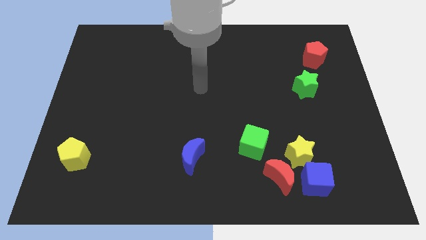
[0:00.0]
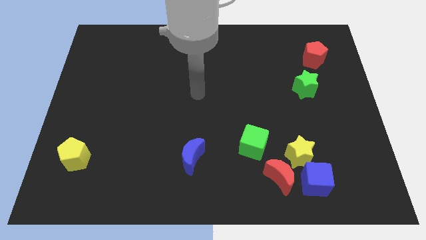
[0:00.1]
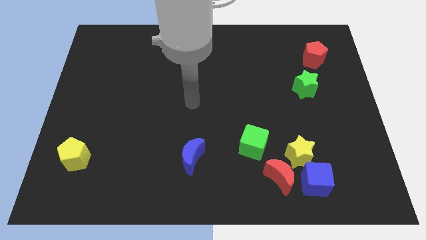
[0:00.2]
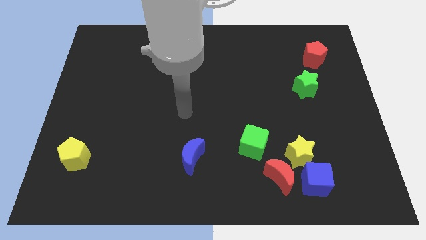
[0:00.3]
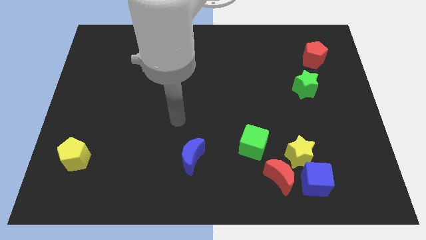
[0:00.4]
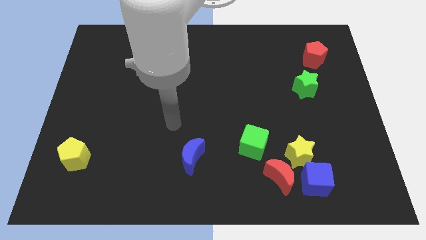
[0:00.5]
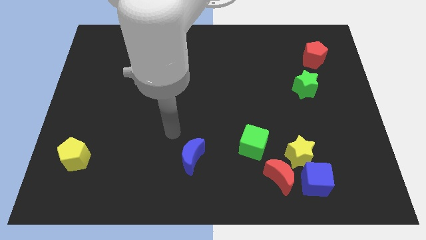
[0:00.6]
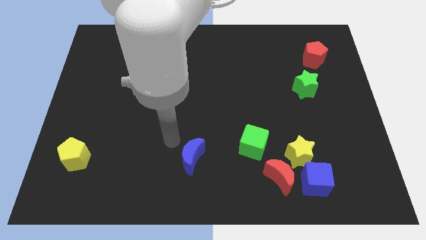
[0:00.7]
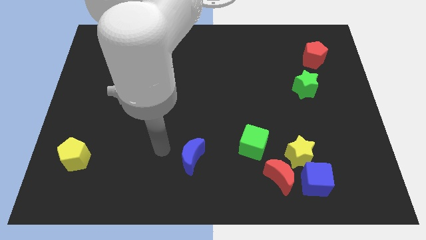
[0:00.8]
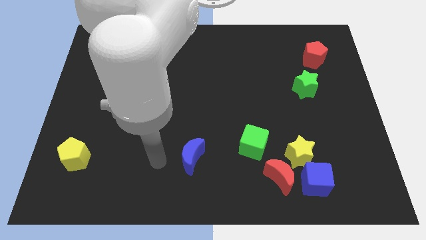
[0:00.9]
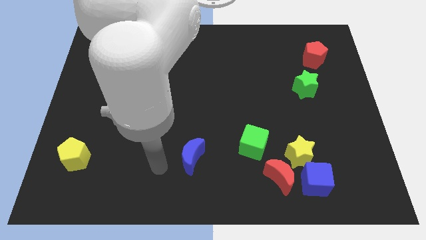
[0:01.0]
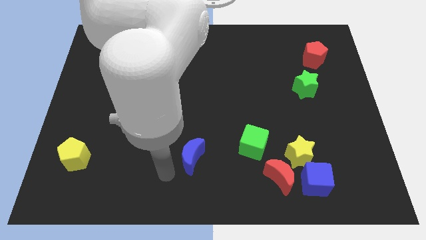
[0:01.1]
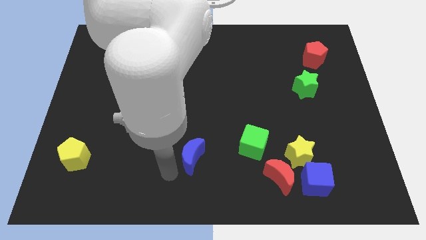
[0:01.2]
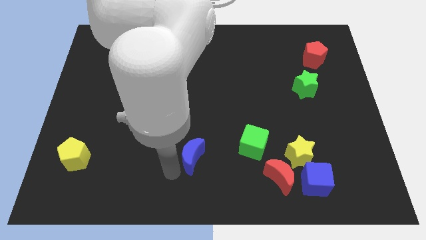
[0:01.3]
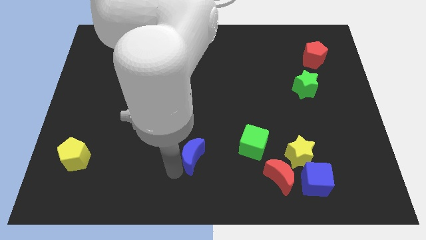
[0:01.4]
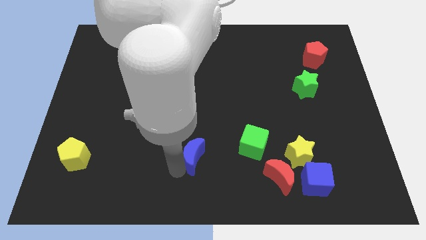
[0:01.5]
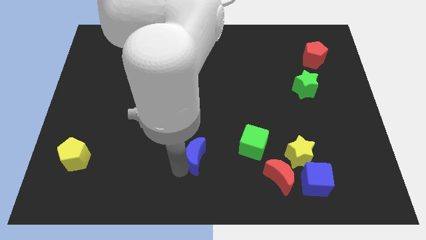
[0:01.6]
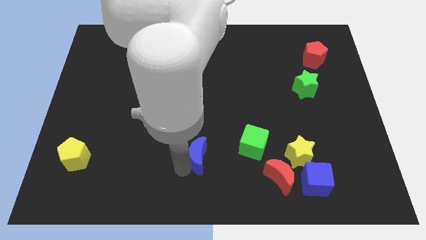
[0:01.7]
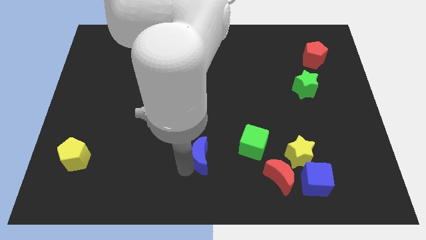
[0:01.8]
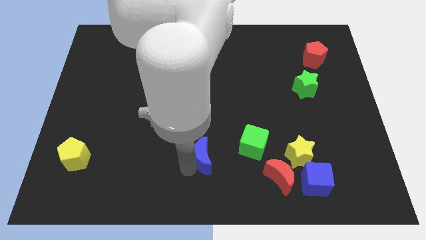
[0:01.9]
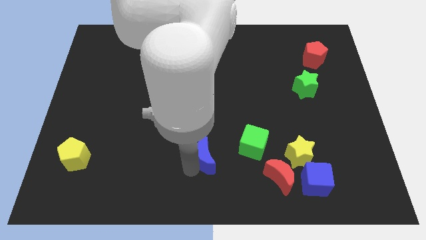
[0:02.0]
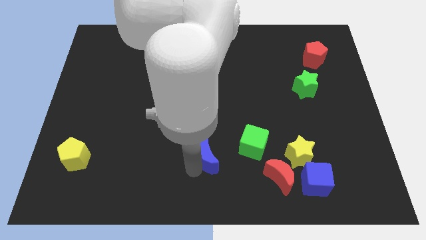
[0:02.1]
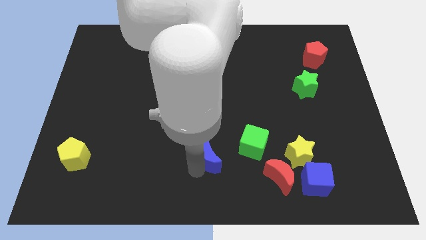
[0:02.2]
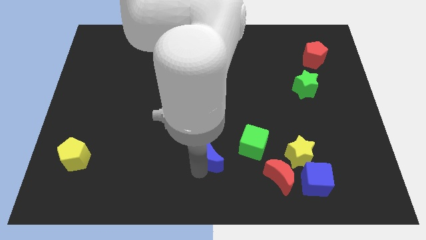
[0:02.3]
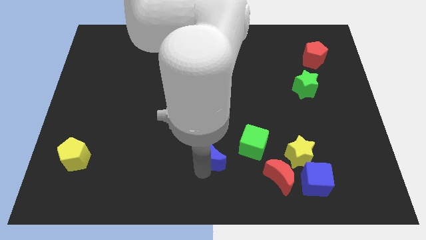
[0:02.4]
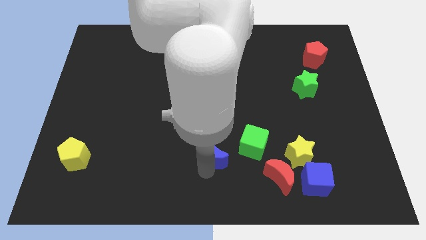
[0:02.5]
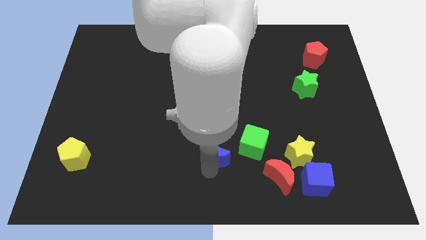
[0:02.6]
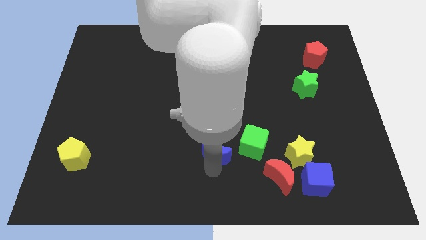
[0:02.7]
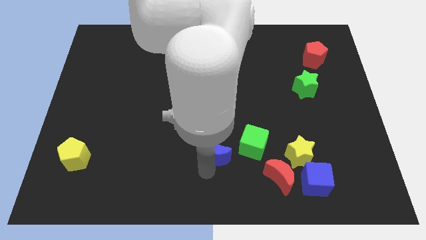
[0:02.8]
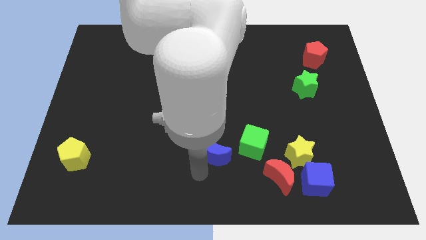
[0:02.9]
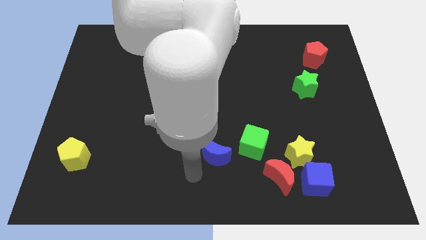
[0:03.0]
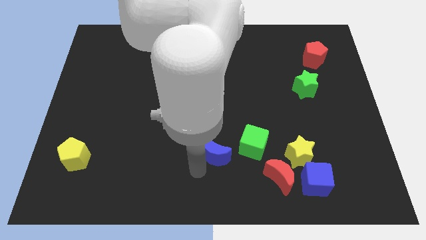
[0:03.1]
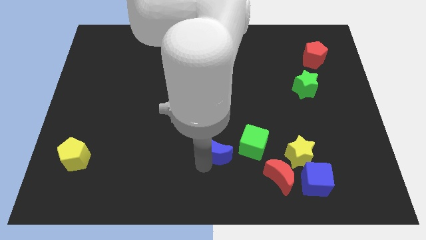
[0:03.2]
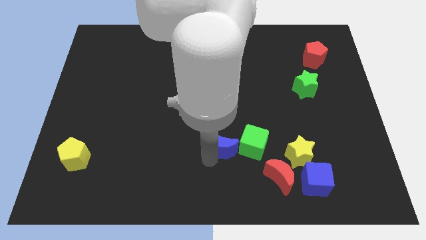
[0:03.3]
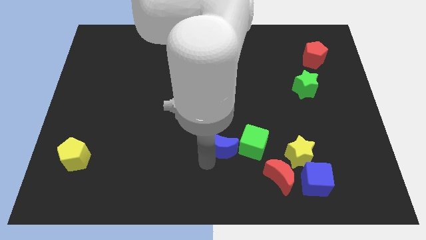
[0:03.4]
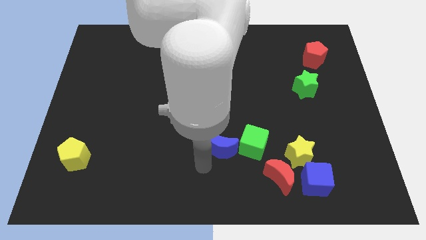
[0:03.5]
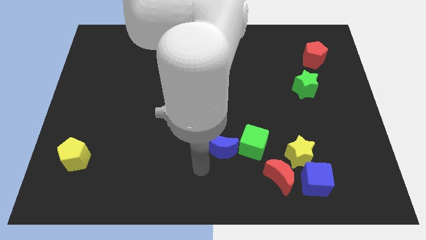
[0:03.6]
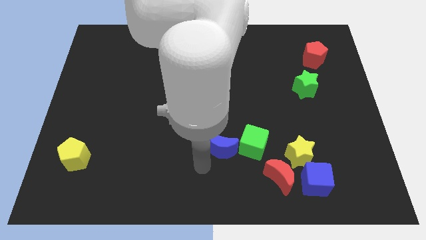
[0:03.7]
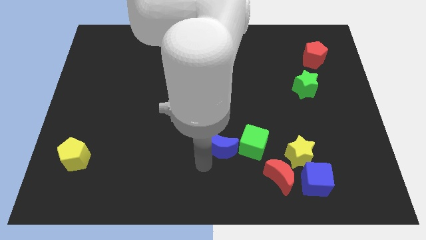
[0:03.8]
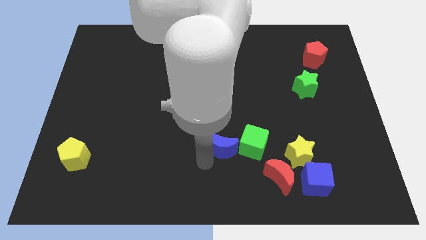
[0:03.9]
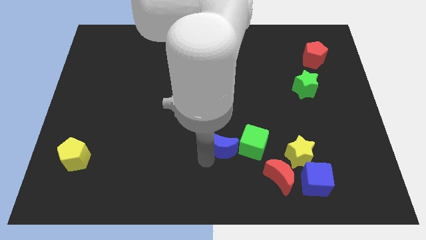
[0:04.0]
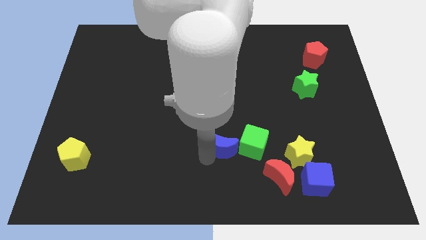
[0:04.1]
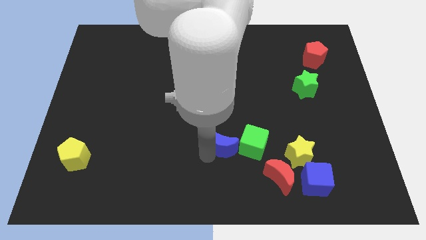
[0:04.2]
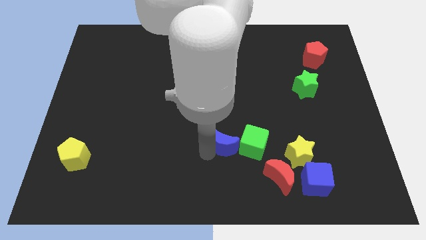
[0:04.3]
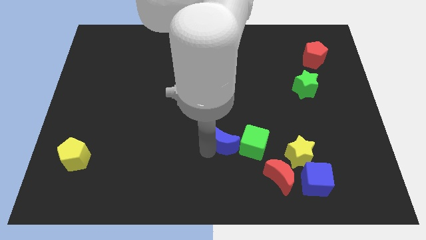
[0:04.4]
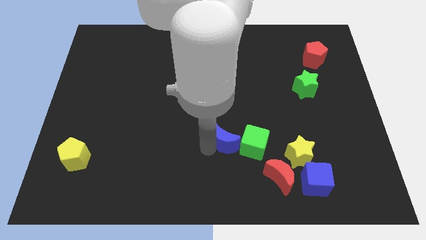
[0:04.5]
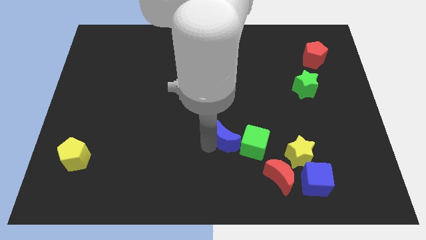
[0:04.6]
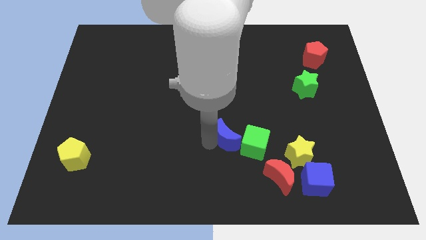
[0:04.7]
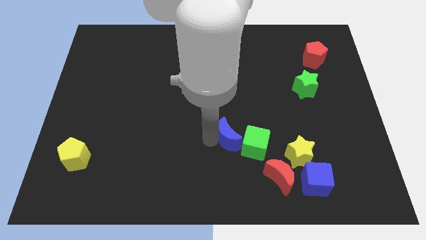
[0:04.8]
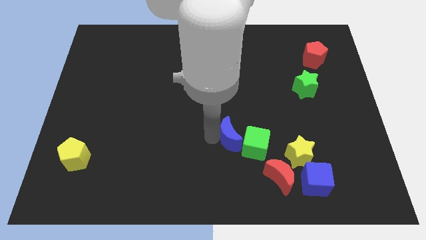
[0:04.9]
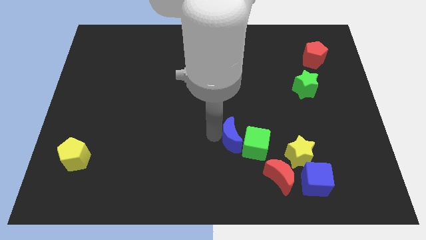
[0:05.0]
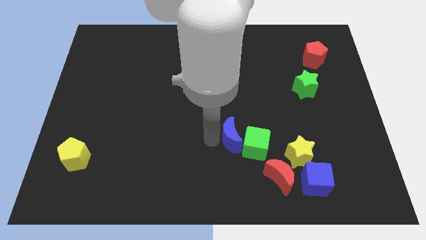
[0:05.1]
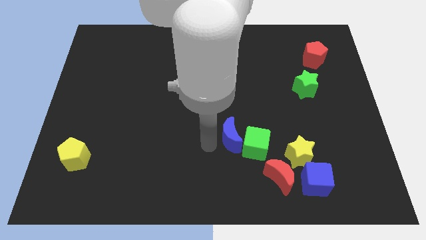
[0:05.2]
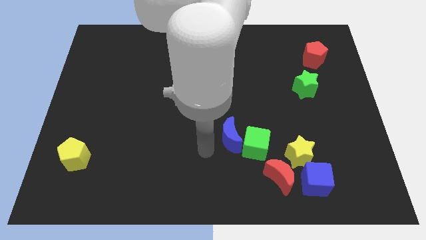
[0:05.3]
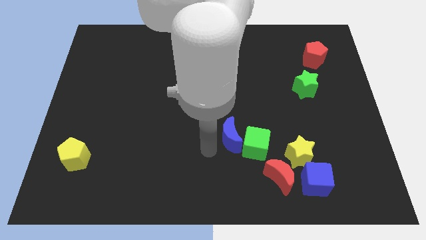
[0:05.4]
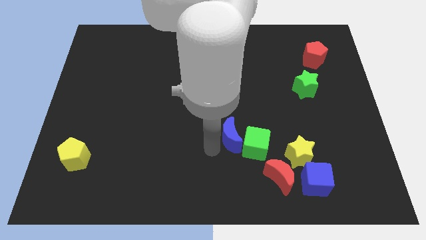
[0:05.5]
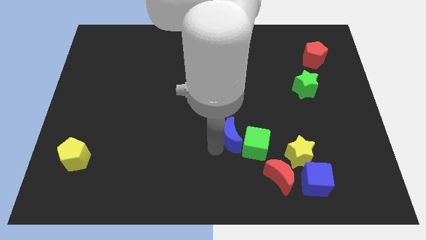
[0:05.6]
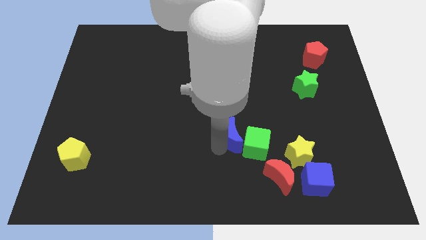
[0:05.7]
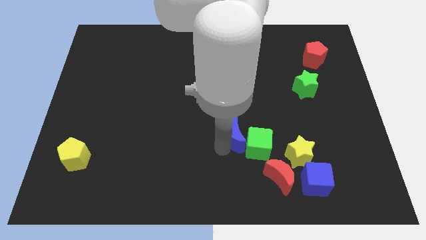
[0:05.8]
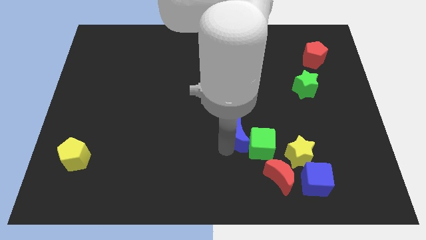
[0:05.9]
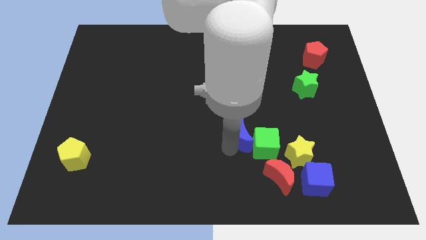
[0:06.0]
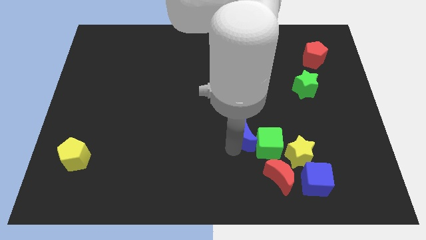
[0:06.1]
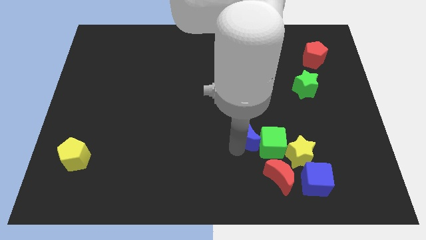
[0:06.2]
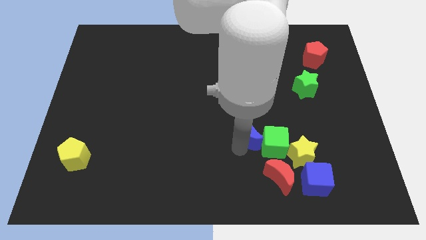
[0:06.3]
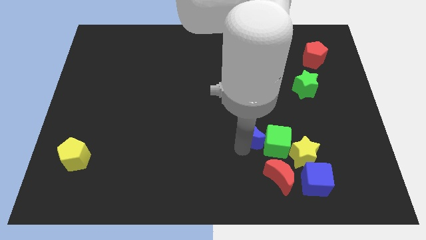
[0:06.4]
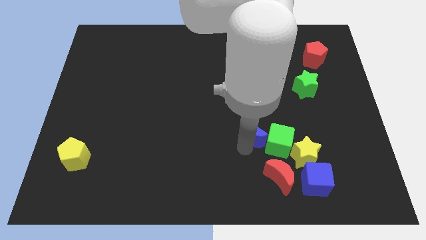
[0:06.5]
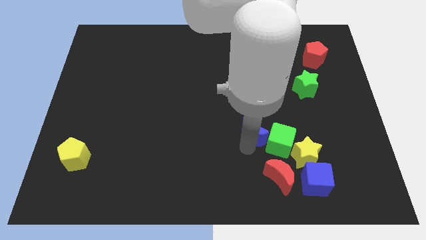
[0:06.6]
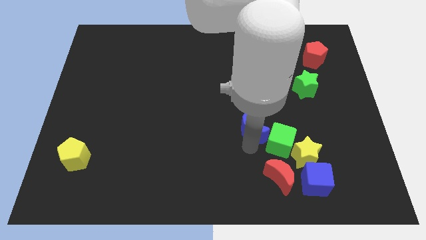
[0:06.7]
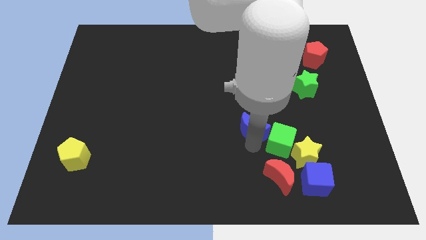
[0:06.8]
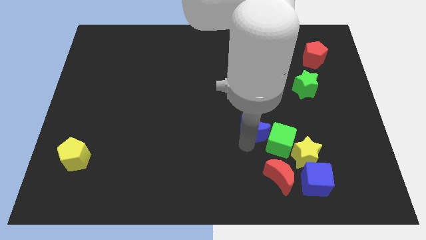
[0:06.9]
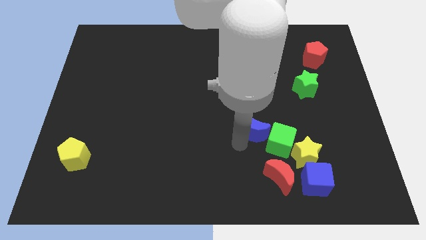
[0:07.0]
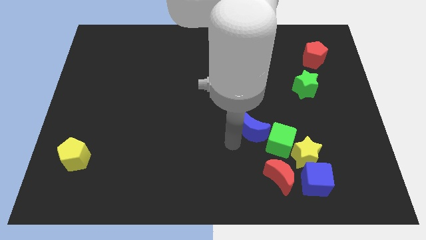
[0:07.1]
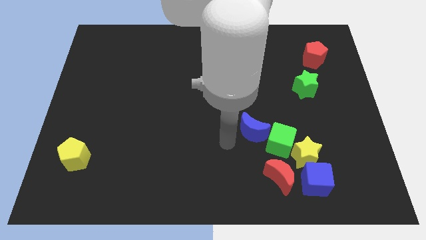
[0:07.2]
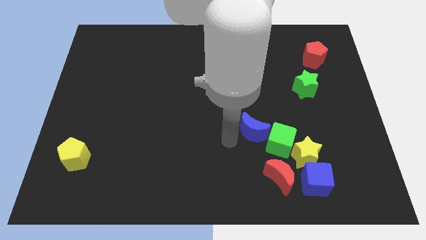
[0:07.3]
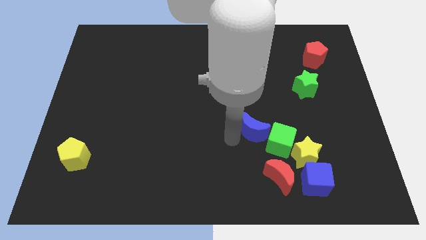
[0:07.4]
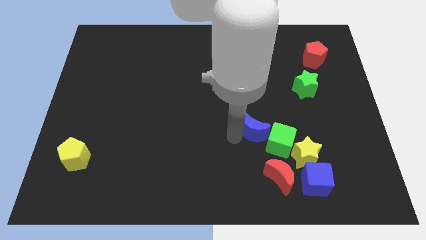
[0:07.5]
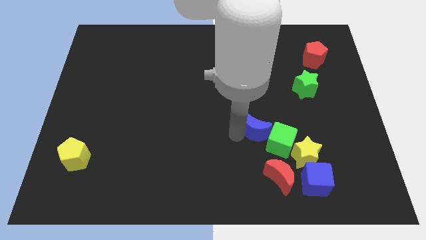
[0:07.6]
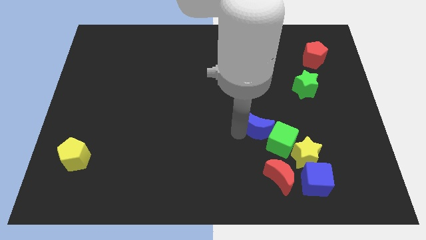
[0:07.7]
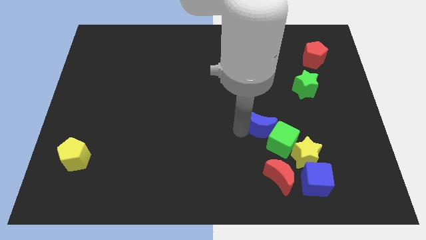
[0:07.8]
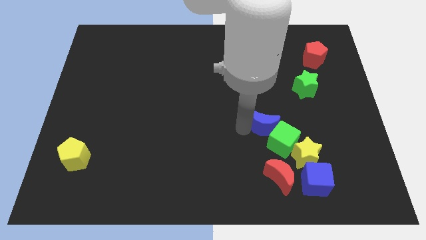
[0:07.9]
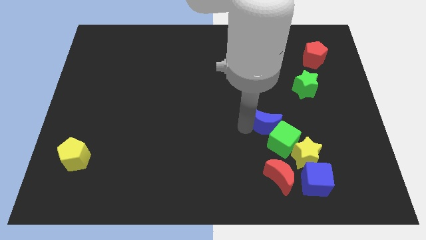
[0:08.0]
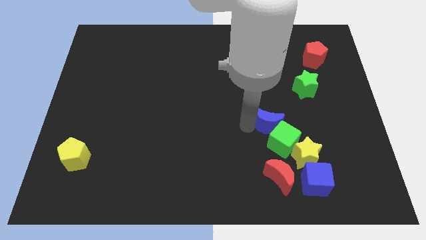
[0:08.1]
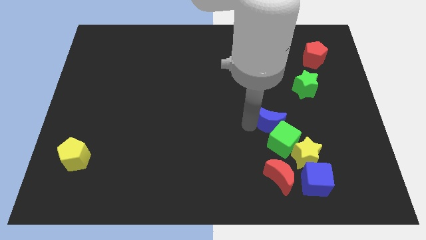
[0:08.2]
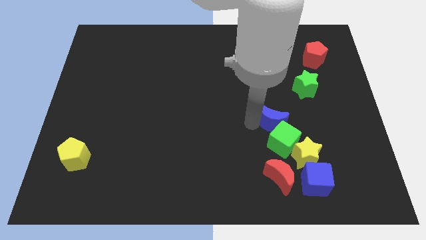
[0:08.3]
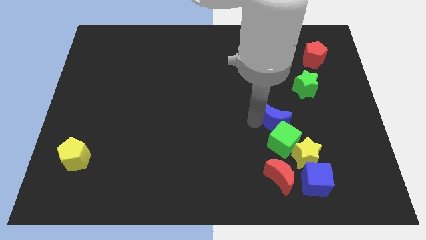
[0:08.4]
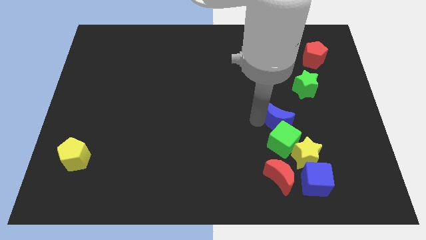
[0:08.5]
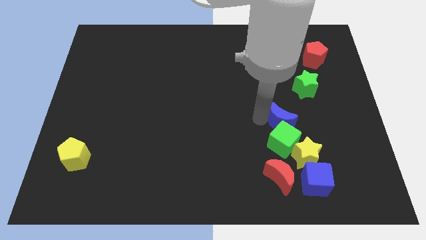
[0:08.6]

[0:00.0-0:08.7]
slide the blue moon to the top of the yellow star
